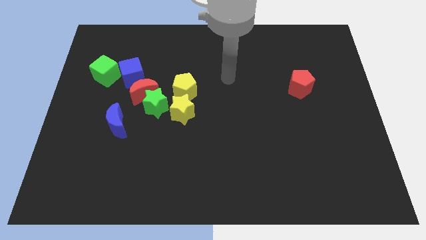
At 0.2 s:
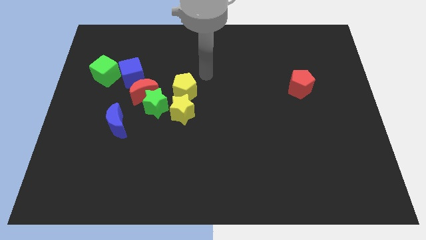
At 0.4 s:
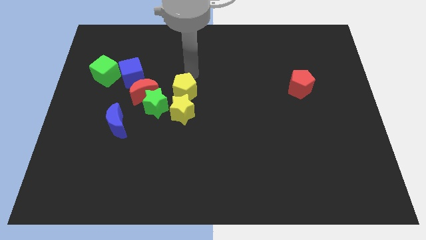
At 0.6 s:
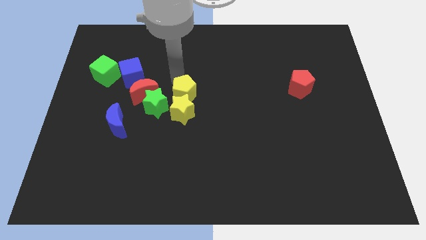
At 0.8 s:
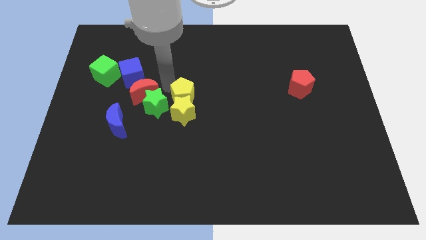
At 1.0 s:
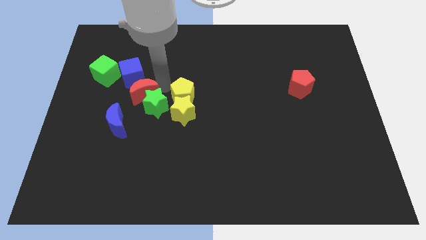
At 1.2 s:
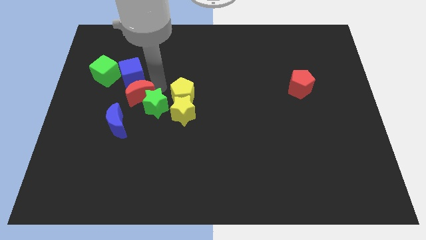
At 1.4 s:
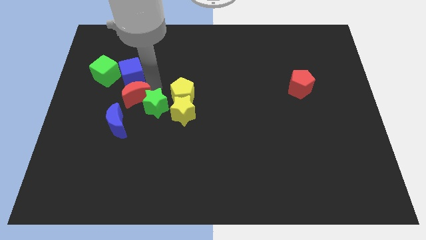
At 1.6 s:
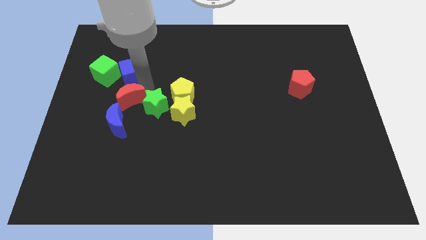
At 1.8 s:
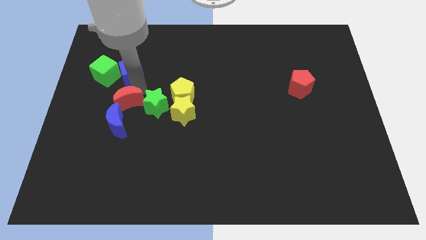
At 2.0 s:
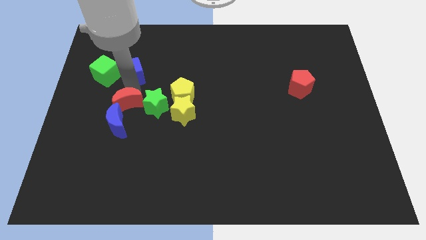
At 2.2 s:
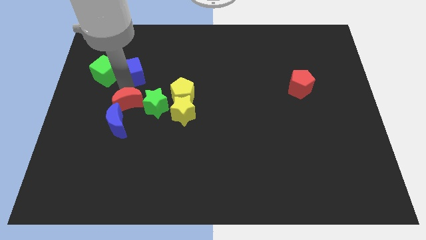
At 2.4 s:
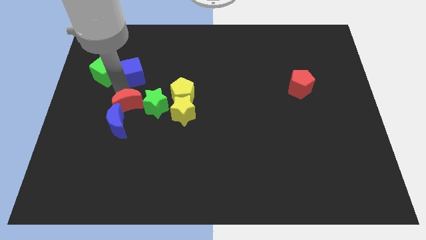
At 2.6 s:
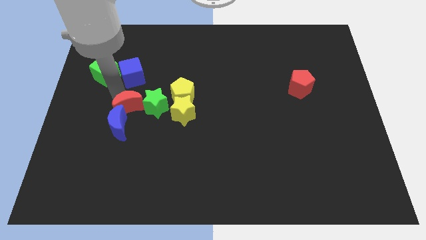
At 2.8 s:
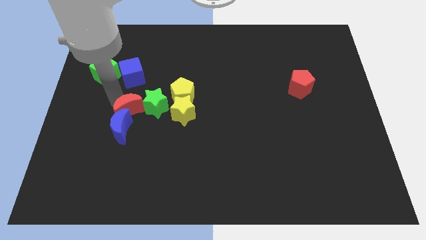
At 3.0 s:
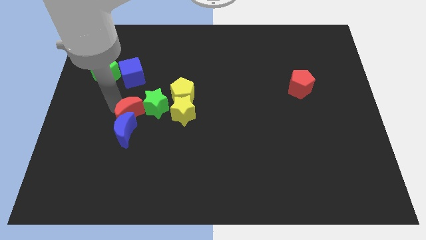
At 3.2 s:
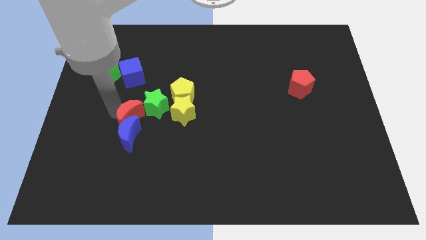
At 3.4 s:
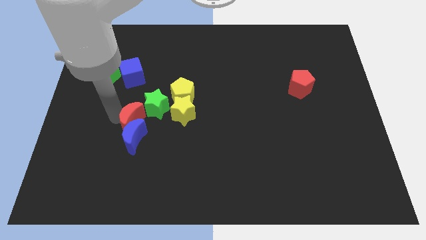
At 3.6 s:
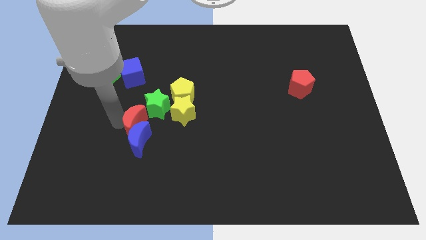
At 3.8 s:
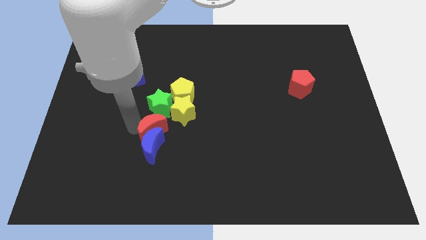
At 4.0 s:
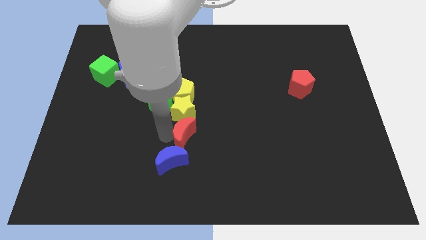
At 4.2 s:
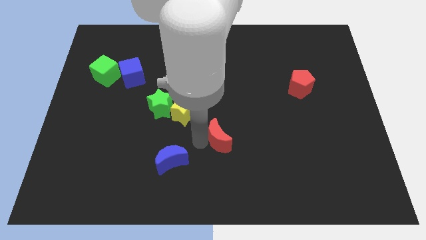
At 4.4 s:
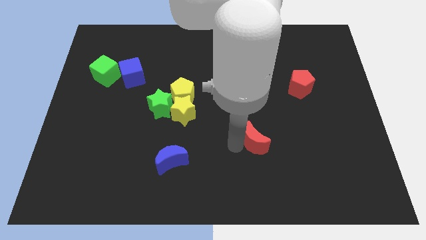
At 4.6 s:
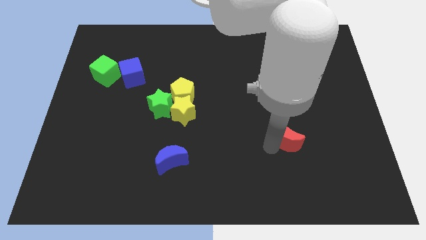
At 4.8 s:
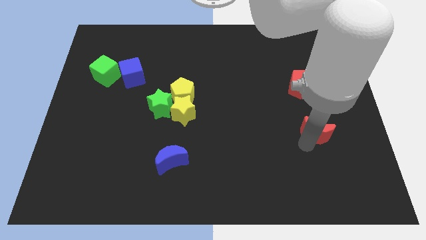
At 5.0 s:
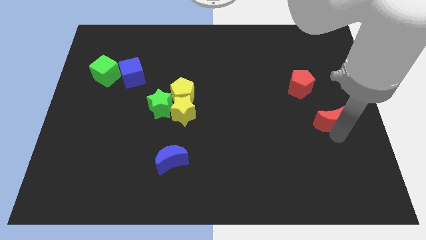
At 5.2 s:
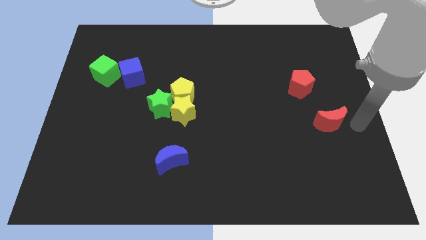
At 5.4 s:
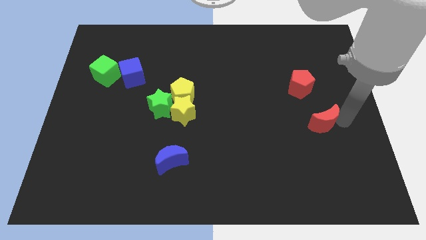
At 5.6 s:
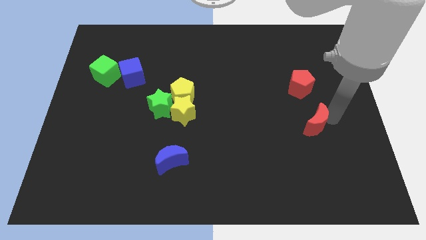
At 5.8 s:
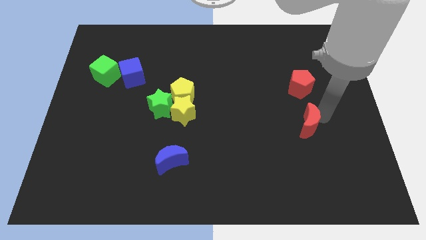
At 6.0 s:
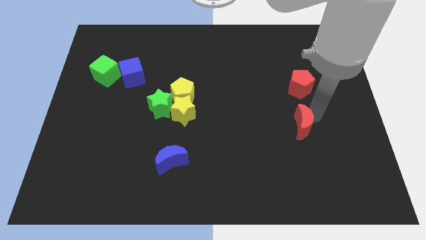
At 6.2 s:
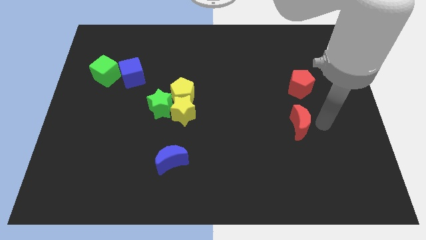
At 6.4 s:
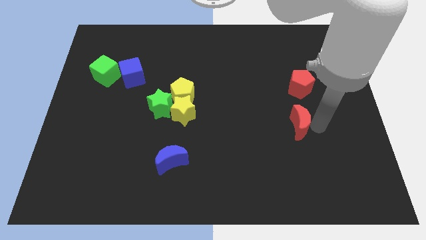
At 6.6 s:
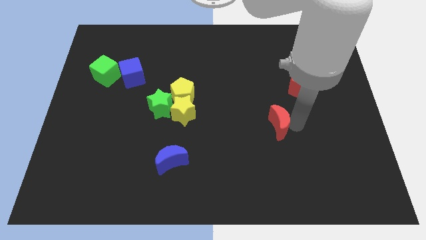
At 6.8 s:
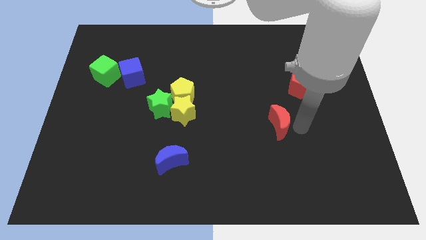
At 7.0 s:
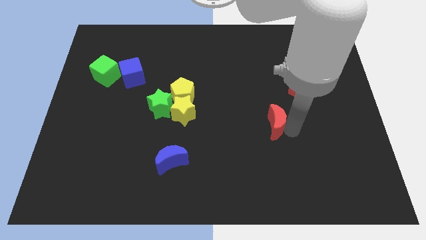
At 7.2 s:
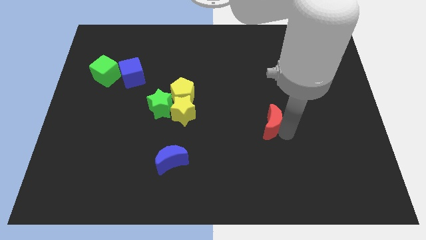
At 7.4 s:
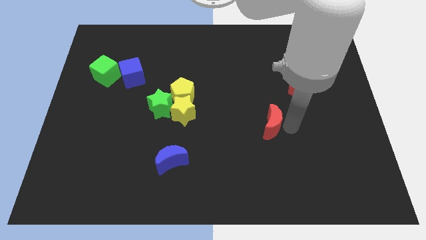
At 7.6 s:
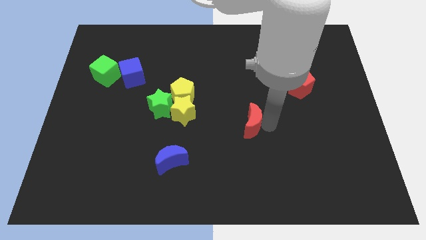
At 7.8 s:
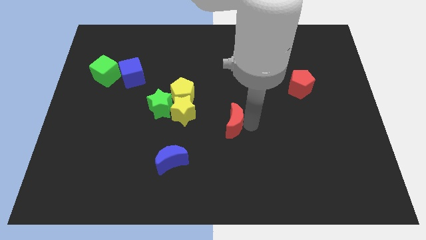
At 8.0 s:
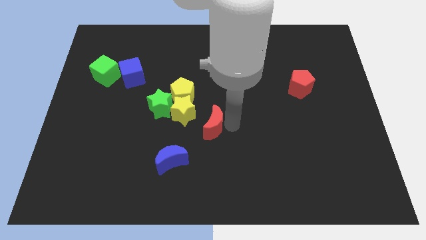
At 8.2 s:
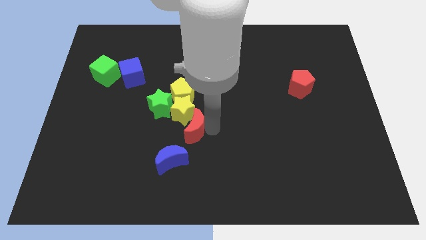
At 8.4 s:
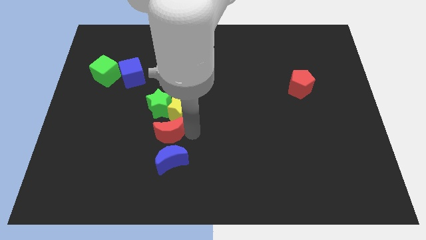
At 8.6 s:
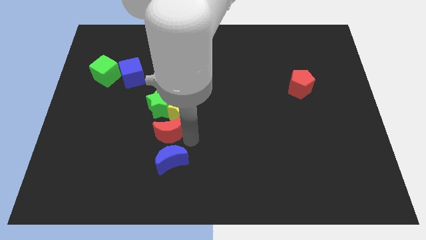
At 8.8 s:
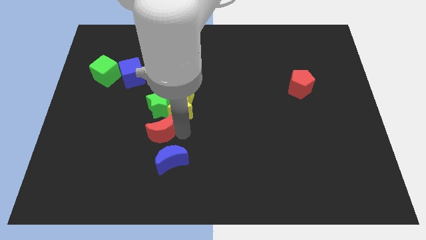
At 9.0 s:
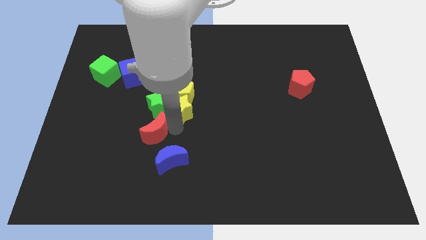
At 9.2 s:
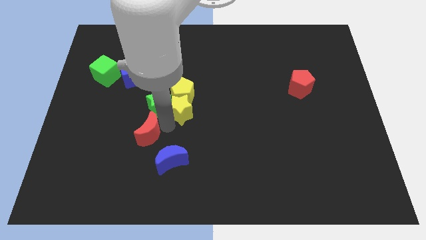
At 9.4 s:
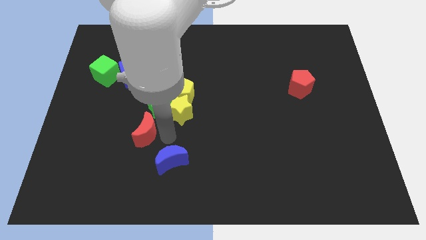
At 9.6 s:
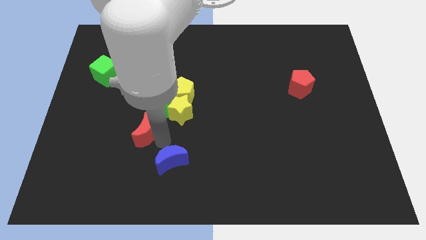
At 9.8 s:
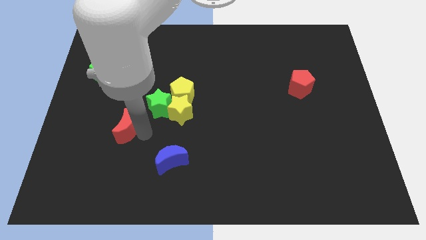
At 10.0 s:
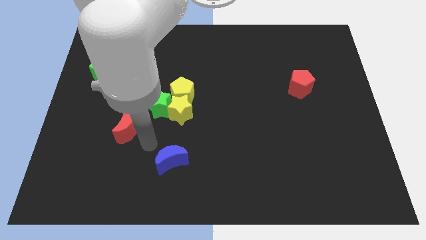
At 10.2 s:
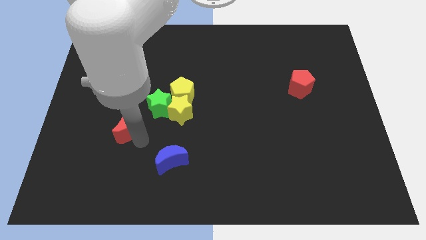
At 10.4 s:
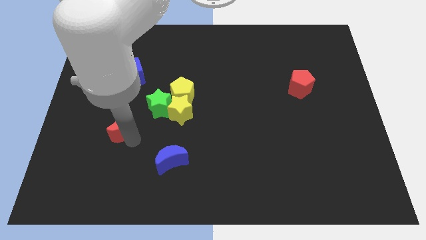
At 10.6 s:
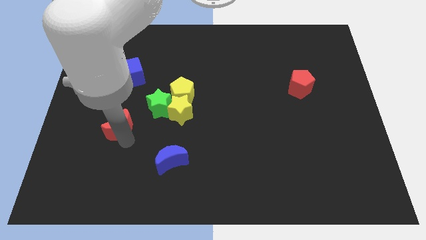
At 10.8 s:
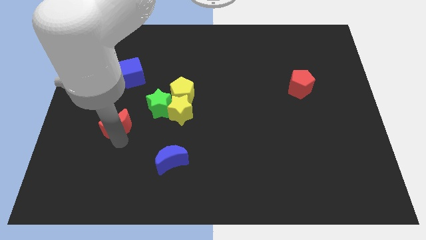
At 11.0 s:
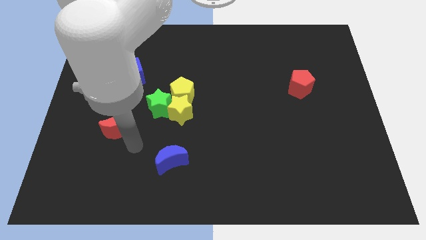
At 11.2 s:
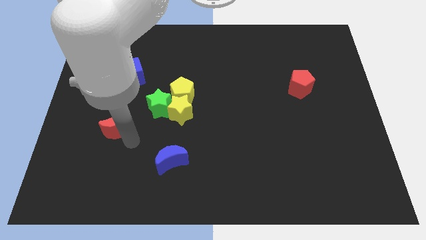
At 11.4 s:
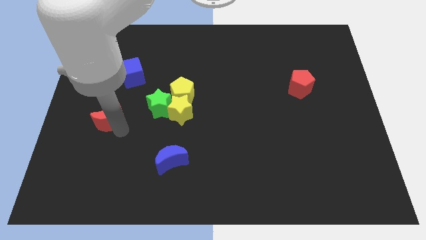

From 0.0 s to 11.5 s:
slide the red moon to the bottom of the green cube

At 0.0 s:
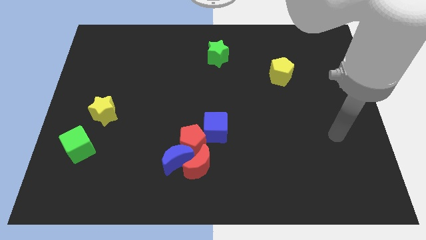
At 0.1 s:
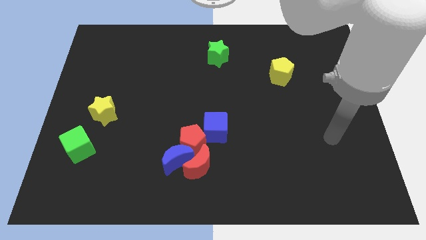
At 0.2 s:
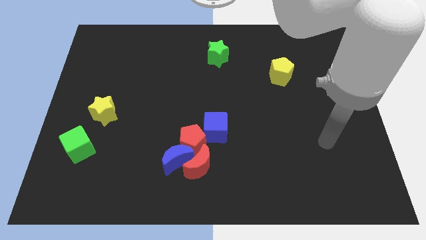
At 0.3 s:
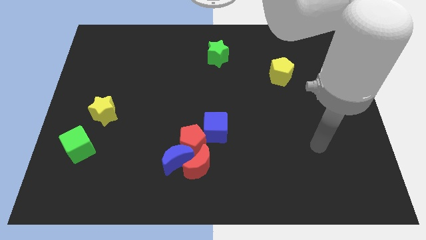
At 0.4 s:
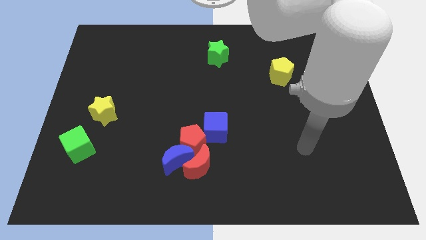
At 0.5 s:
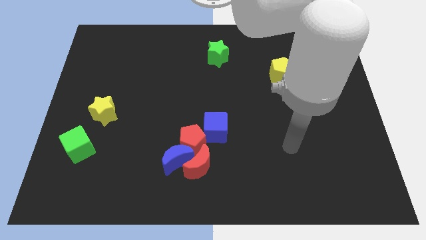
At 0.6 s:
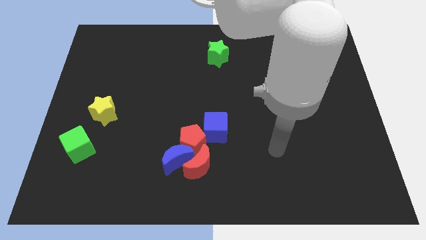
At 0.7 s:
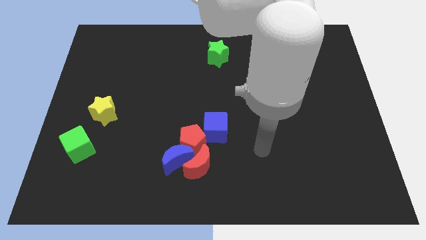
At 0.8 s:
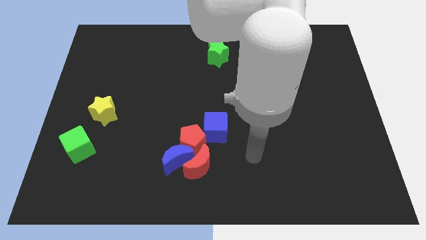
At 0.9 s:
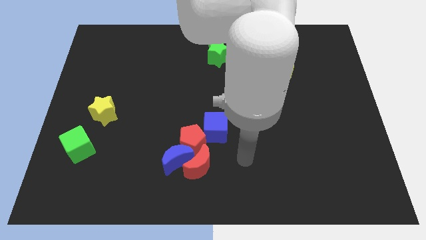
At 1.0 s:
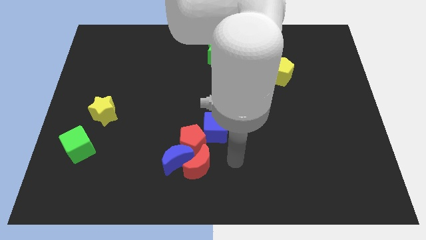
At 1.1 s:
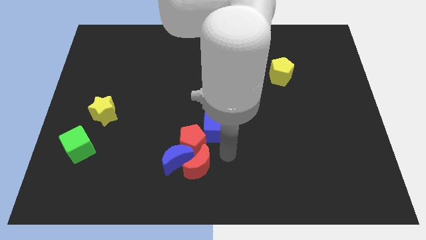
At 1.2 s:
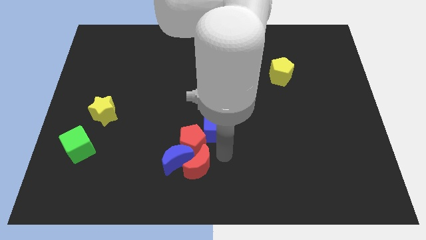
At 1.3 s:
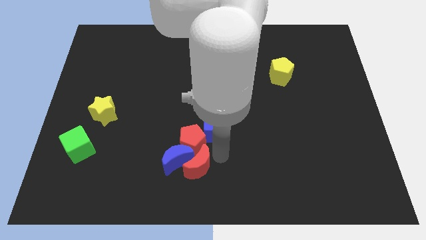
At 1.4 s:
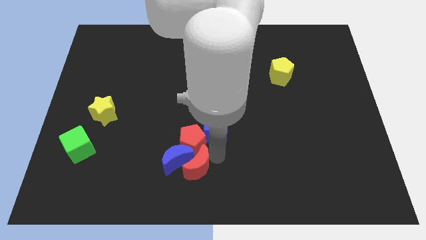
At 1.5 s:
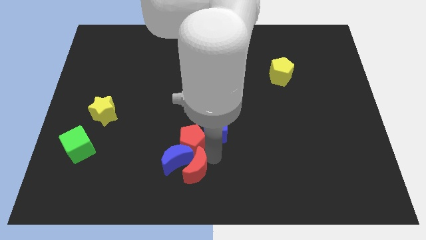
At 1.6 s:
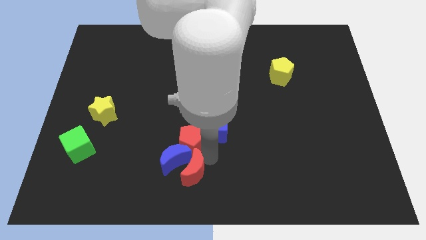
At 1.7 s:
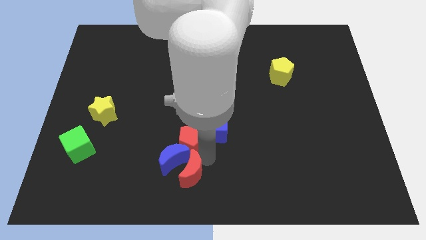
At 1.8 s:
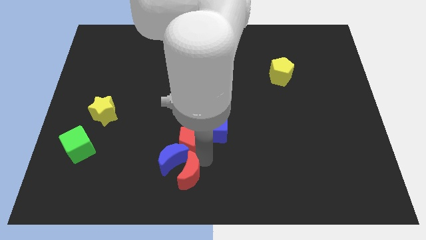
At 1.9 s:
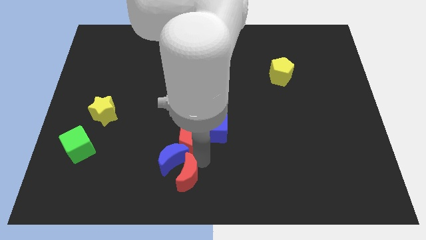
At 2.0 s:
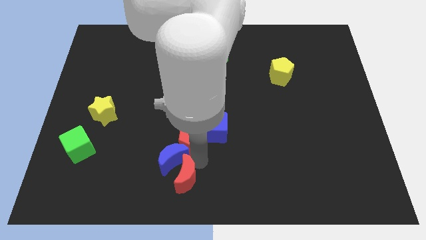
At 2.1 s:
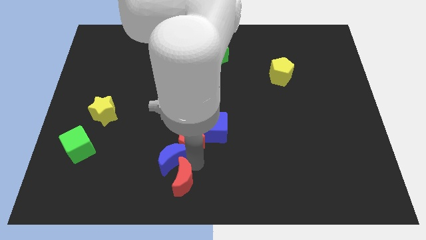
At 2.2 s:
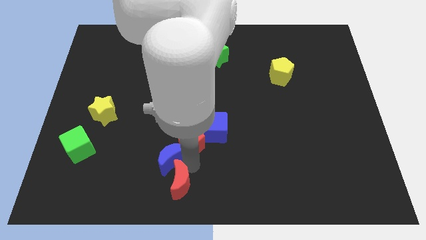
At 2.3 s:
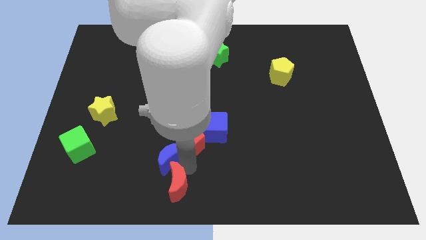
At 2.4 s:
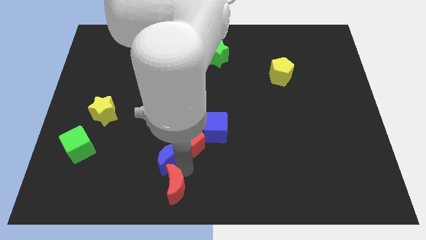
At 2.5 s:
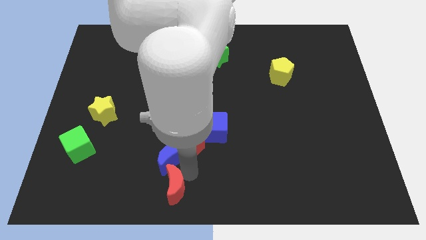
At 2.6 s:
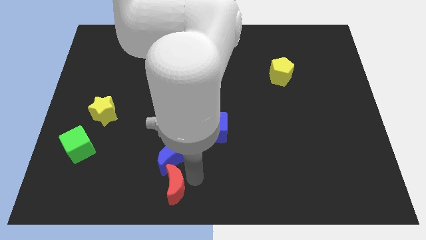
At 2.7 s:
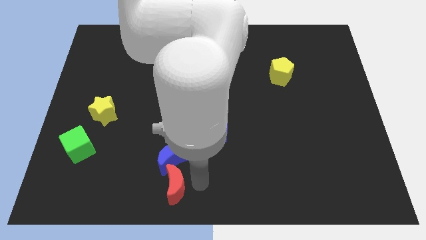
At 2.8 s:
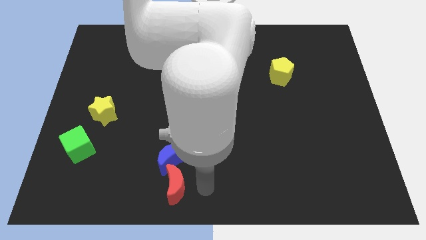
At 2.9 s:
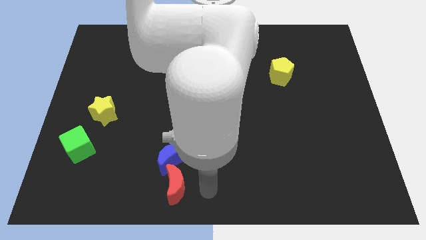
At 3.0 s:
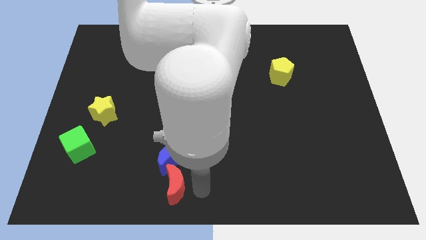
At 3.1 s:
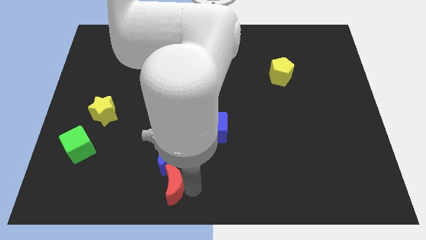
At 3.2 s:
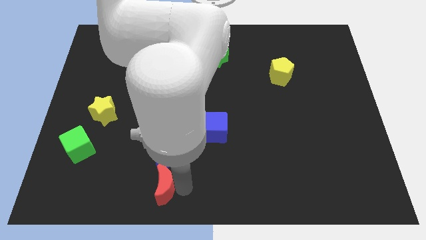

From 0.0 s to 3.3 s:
push the red moon to the bottom left side of the blue moon
